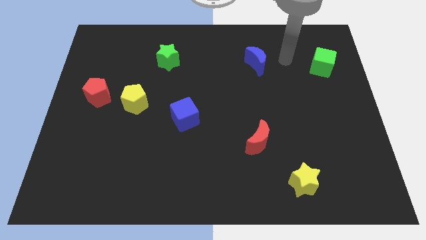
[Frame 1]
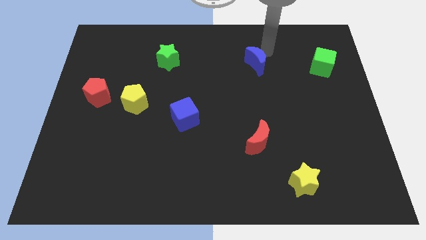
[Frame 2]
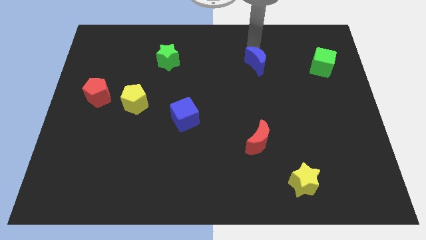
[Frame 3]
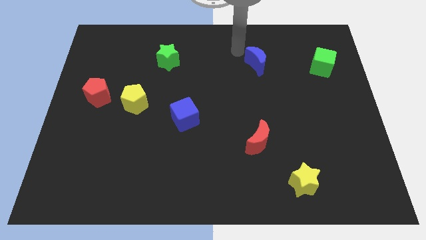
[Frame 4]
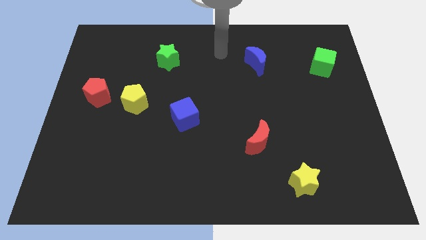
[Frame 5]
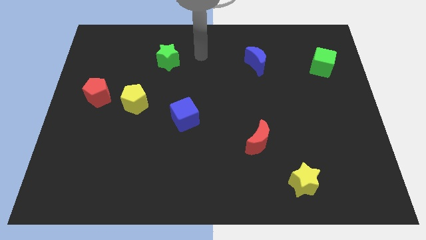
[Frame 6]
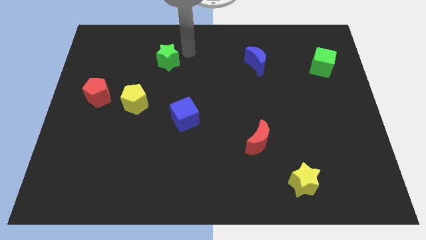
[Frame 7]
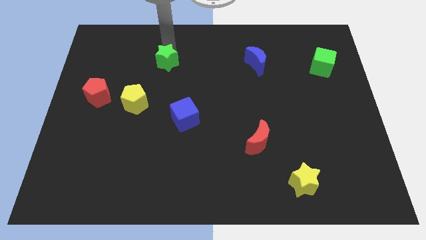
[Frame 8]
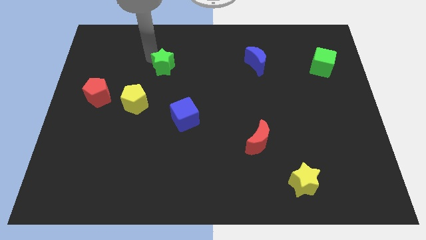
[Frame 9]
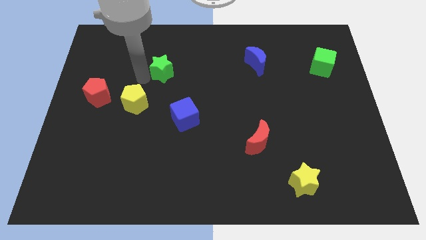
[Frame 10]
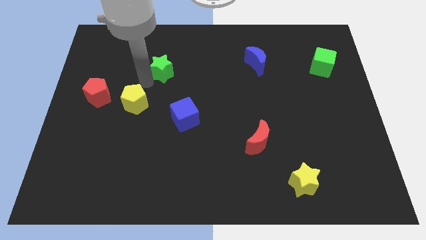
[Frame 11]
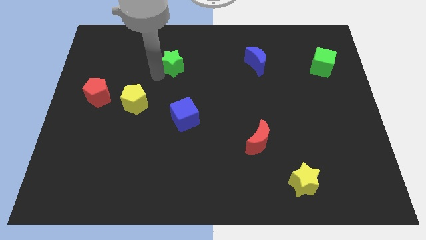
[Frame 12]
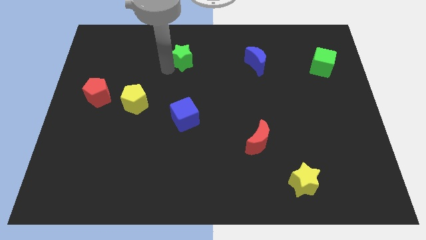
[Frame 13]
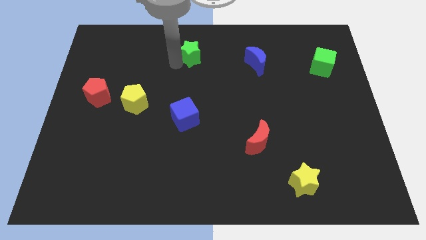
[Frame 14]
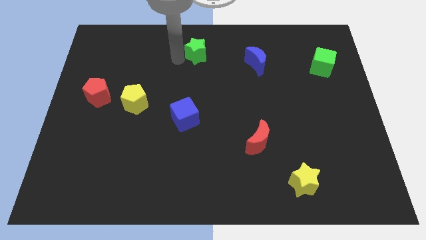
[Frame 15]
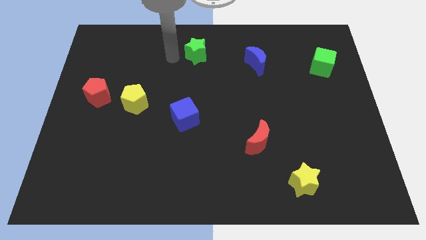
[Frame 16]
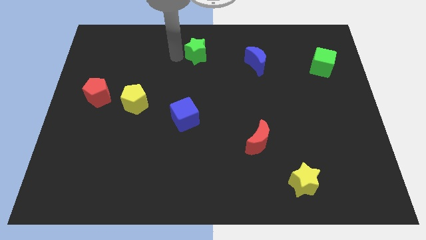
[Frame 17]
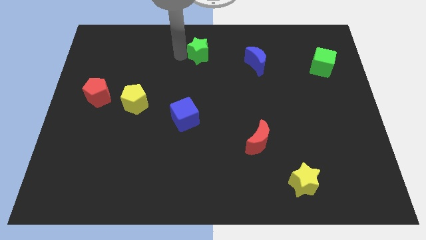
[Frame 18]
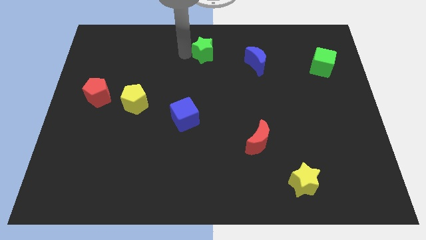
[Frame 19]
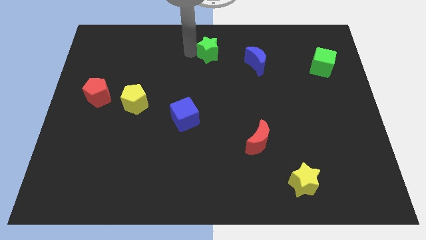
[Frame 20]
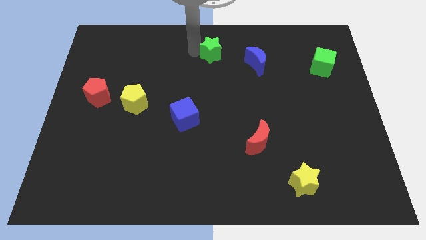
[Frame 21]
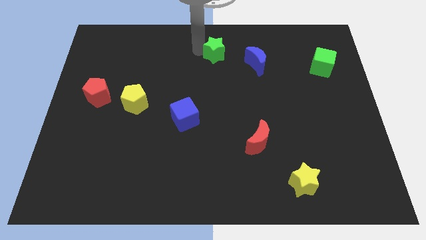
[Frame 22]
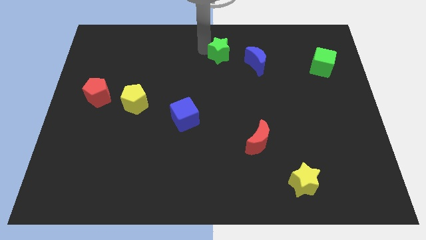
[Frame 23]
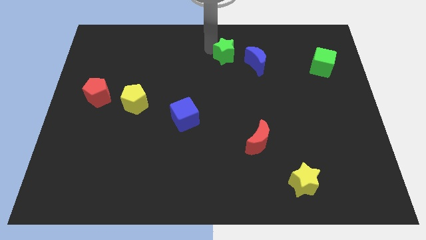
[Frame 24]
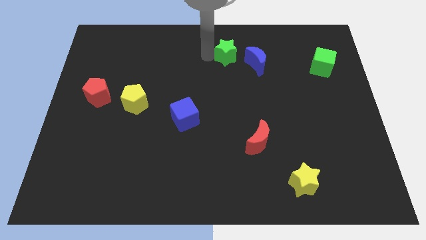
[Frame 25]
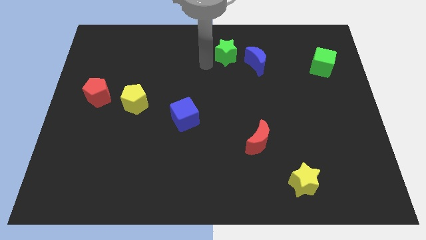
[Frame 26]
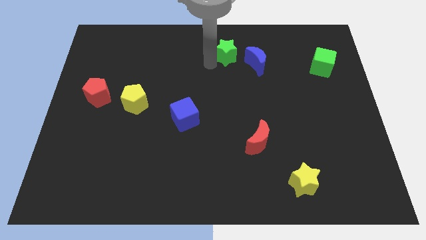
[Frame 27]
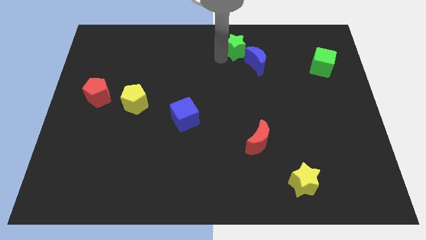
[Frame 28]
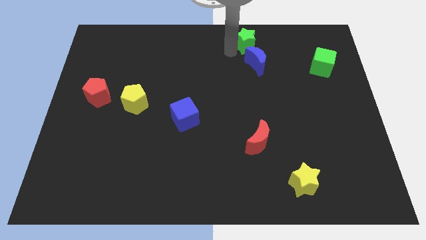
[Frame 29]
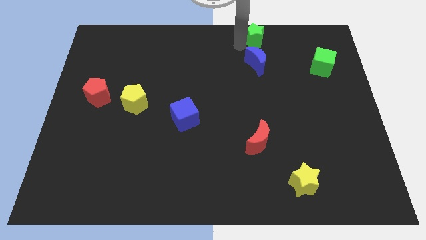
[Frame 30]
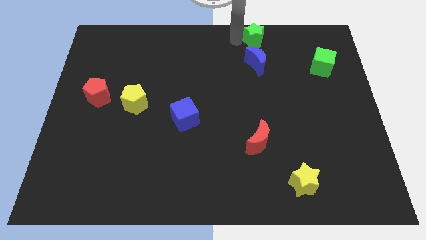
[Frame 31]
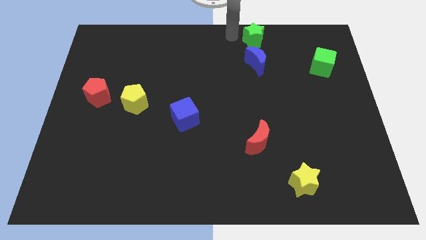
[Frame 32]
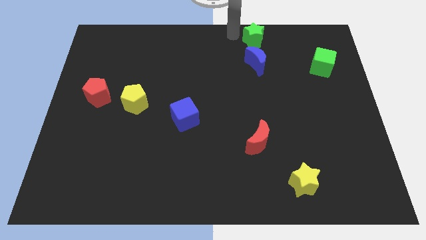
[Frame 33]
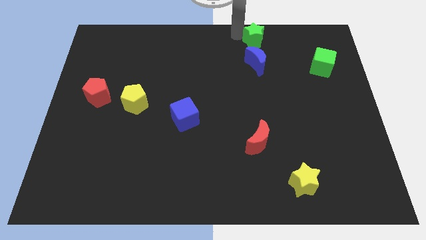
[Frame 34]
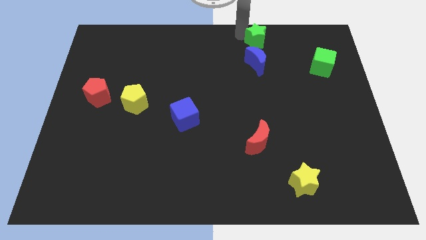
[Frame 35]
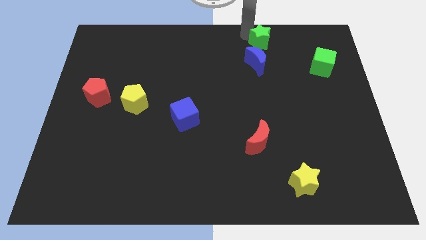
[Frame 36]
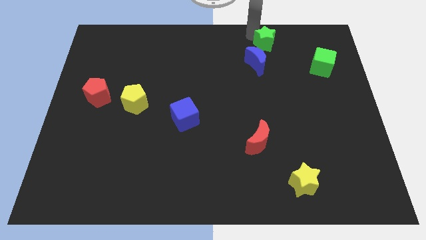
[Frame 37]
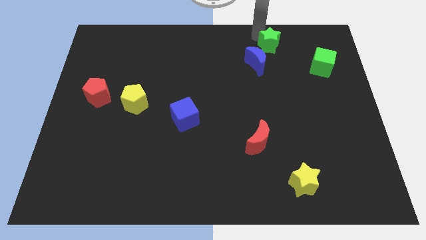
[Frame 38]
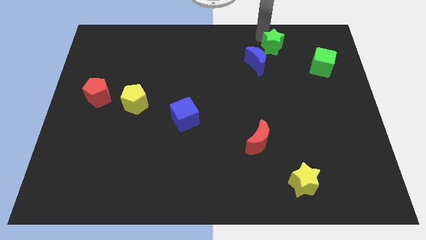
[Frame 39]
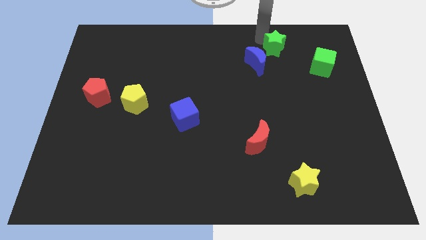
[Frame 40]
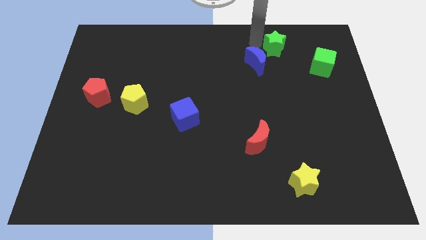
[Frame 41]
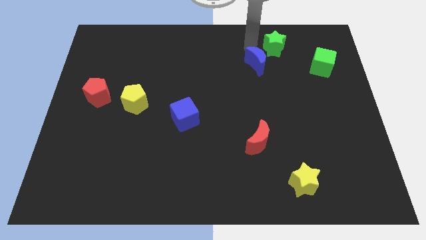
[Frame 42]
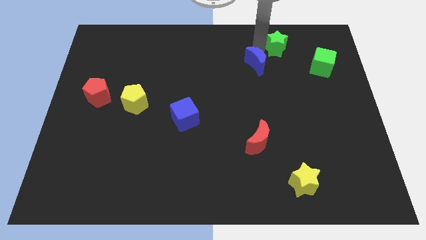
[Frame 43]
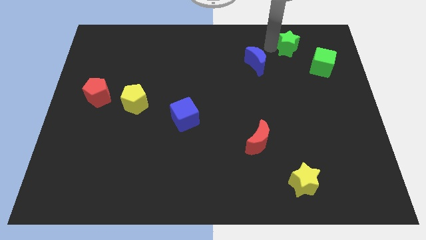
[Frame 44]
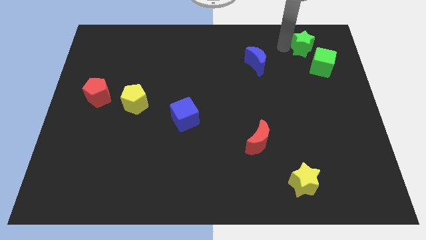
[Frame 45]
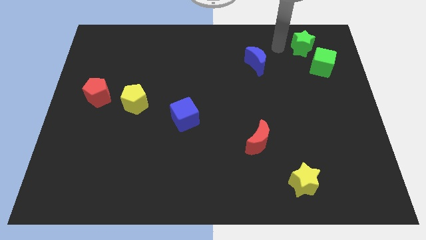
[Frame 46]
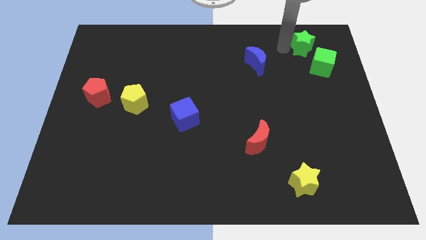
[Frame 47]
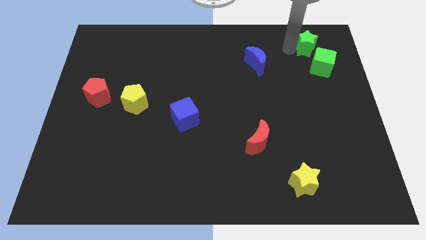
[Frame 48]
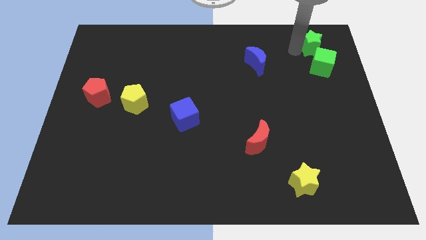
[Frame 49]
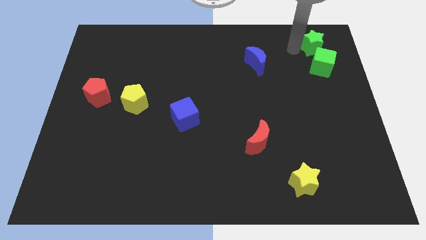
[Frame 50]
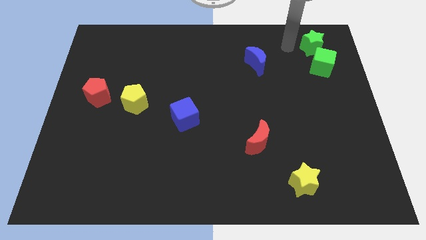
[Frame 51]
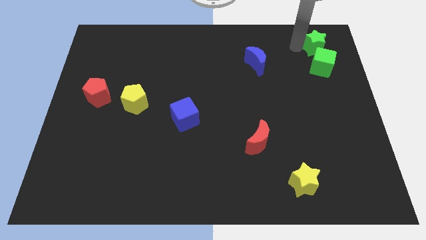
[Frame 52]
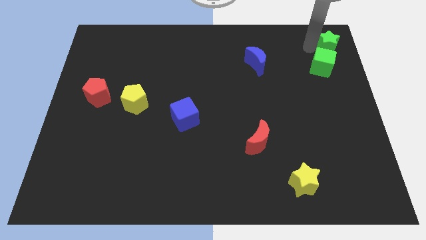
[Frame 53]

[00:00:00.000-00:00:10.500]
push the green star to the top right corner

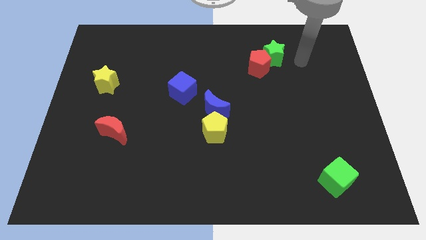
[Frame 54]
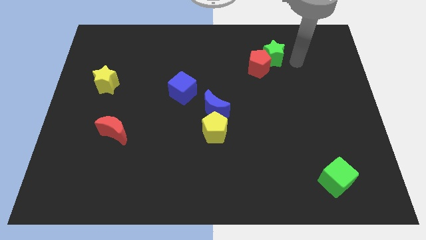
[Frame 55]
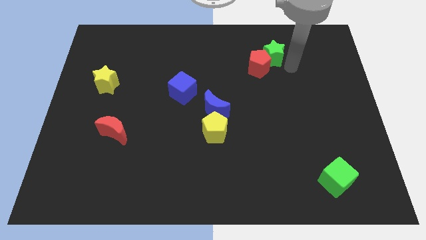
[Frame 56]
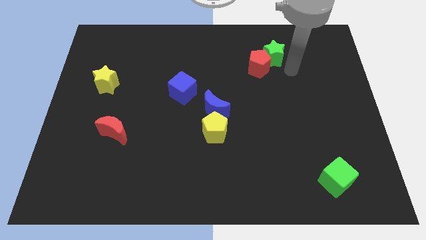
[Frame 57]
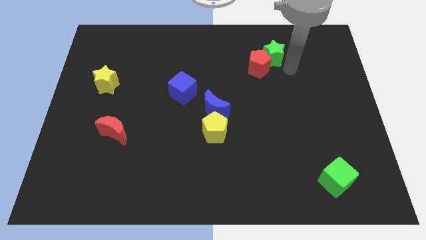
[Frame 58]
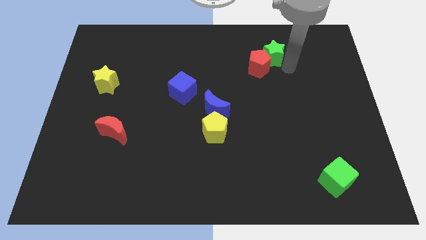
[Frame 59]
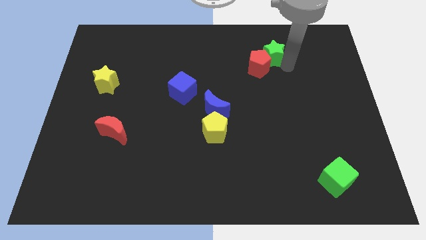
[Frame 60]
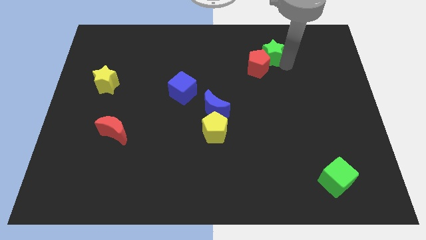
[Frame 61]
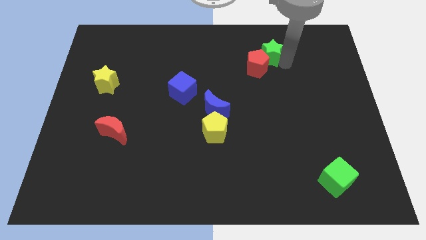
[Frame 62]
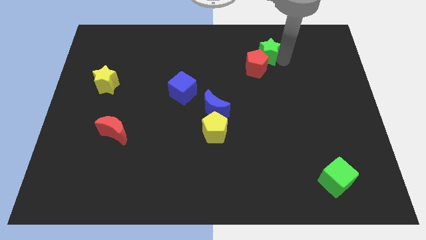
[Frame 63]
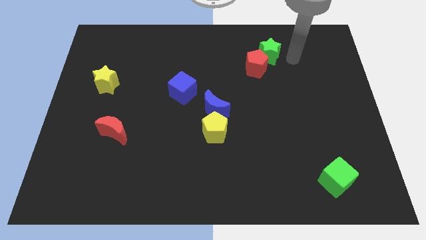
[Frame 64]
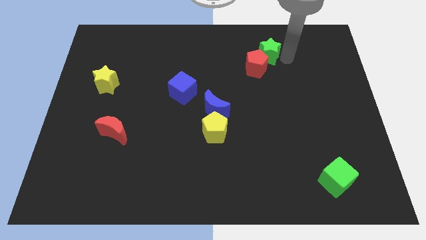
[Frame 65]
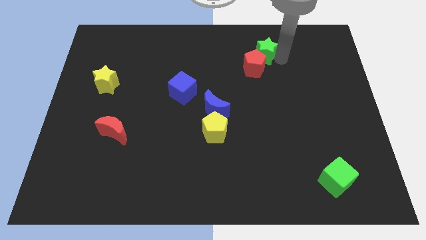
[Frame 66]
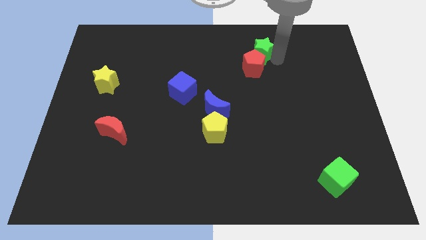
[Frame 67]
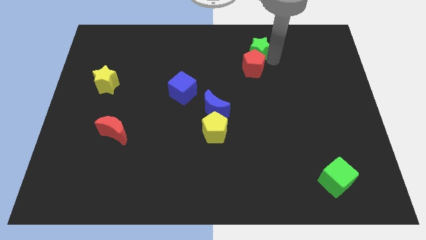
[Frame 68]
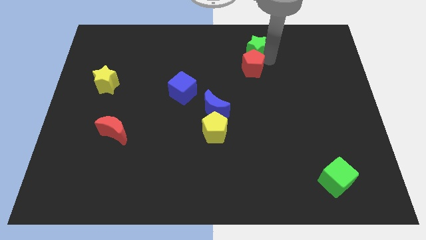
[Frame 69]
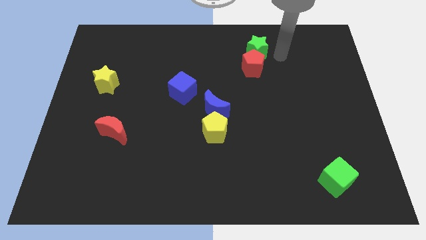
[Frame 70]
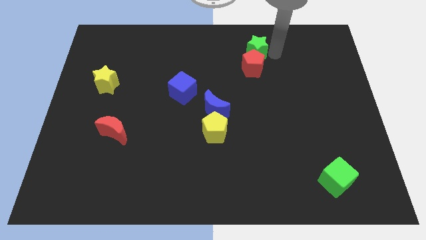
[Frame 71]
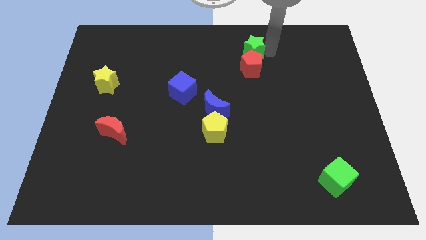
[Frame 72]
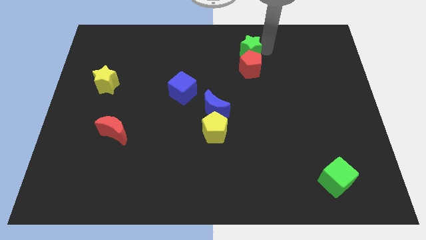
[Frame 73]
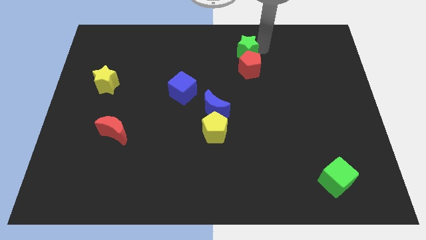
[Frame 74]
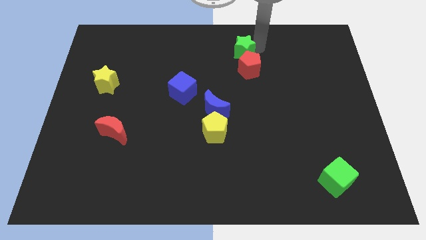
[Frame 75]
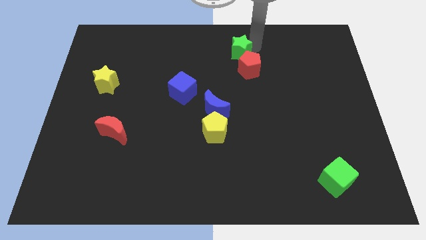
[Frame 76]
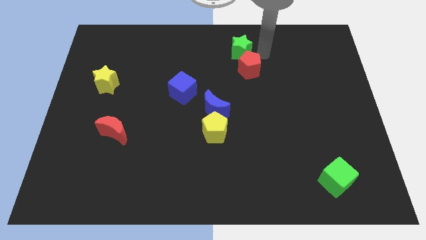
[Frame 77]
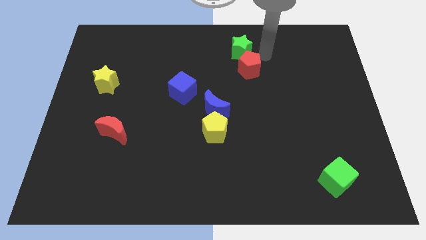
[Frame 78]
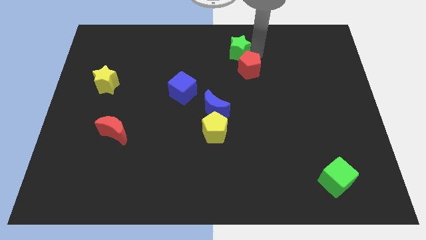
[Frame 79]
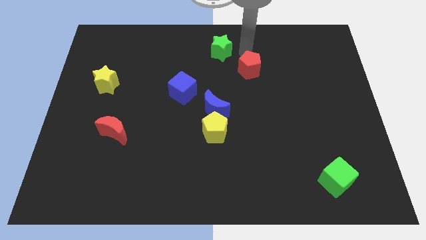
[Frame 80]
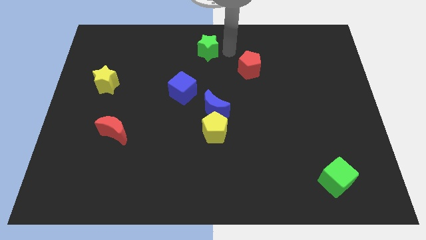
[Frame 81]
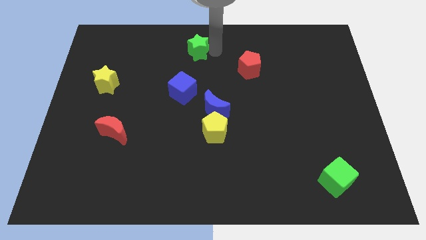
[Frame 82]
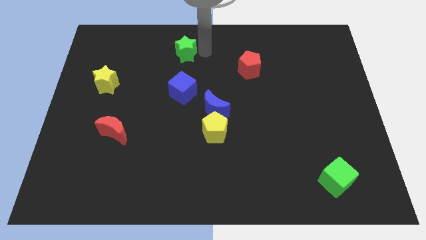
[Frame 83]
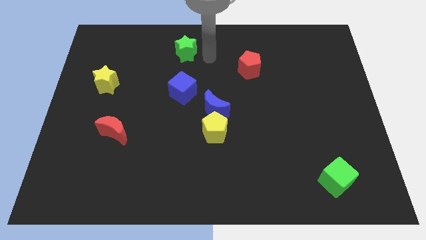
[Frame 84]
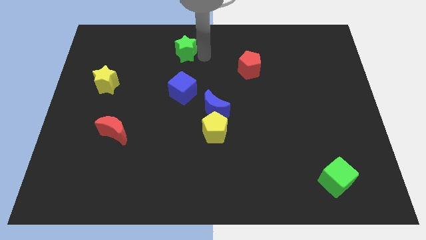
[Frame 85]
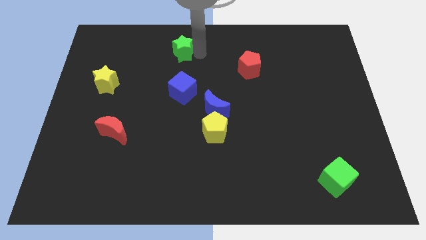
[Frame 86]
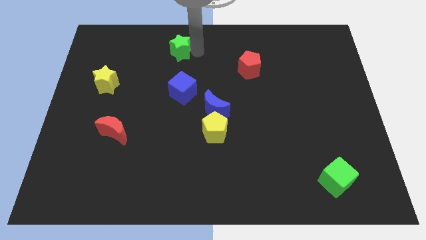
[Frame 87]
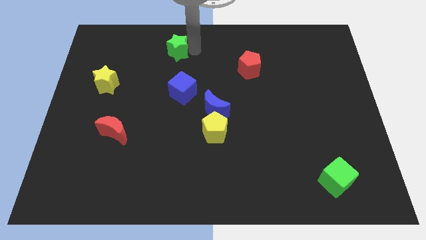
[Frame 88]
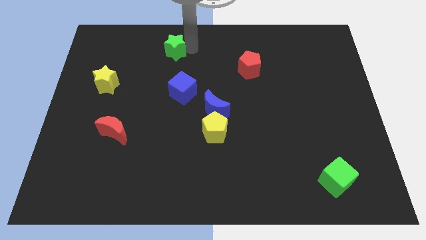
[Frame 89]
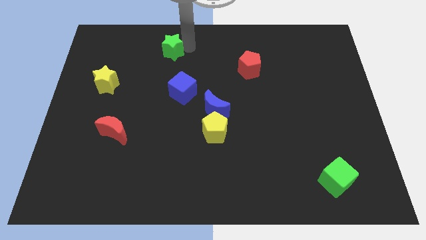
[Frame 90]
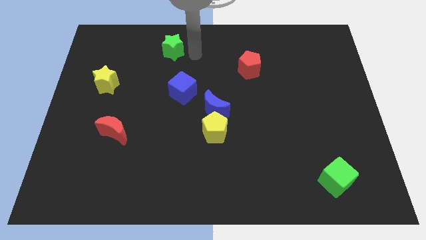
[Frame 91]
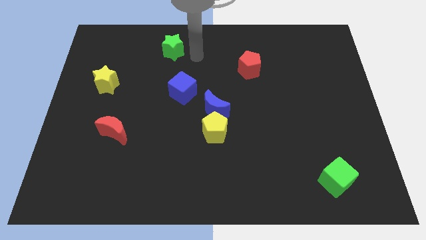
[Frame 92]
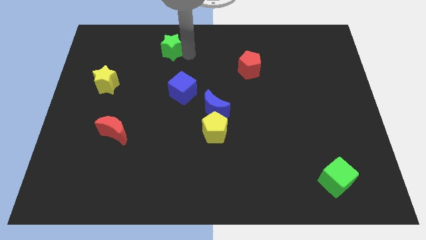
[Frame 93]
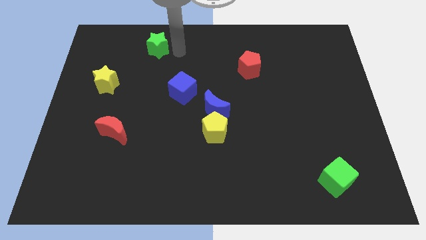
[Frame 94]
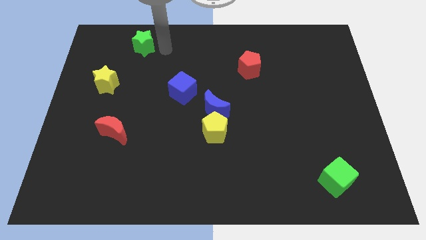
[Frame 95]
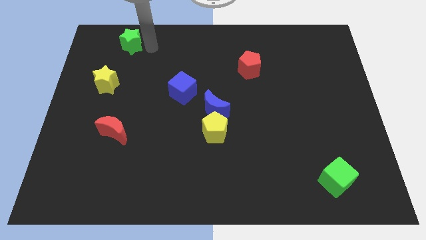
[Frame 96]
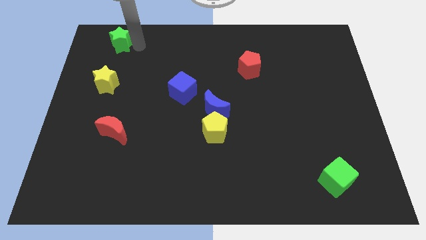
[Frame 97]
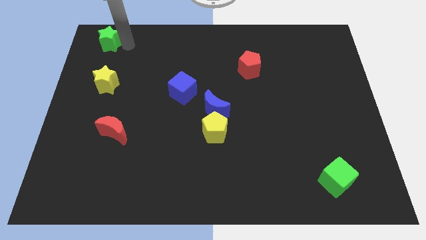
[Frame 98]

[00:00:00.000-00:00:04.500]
push the green star to the top left corner
